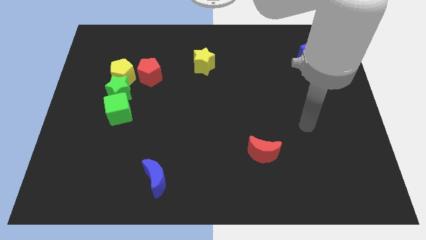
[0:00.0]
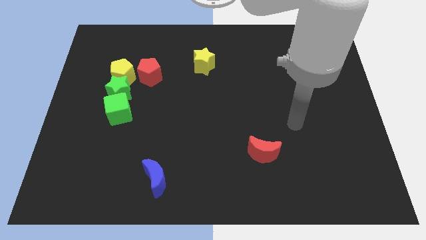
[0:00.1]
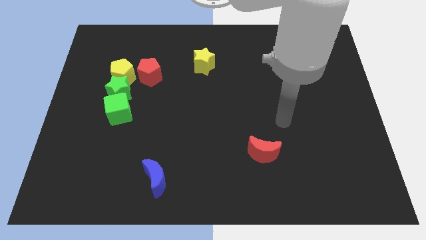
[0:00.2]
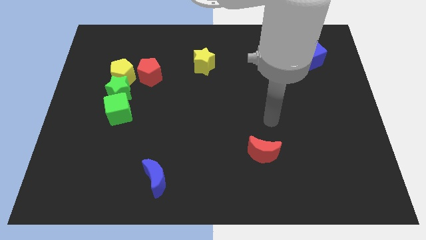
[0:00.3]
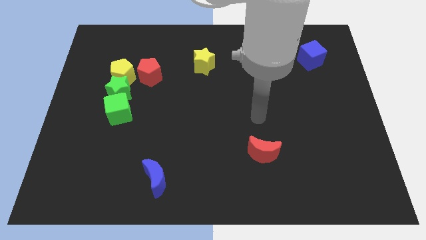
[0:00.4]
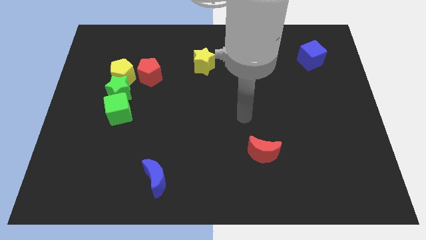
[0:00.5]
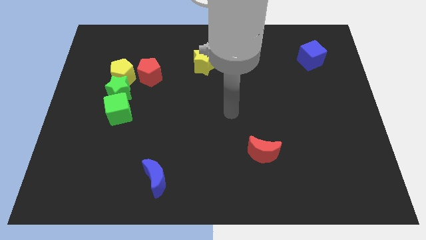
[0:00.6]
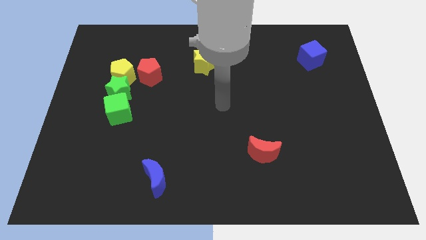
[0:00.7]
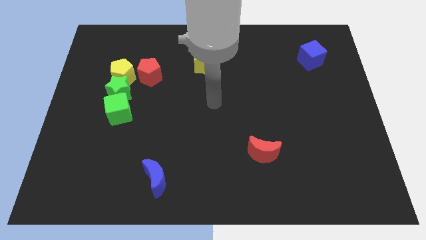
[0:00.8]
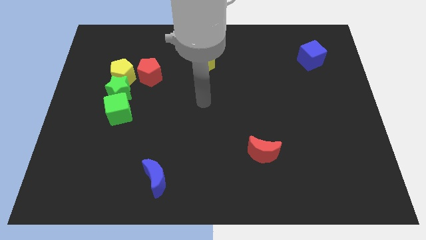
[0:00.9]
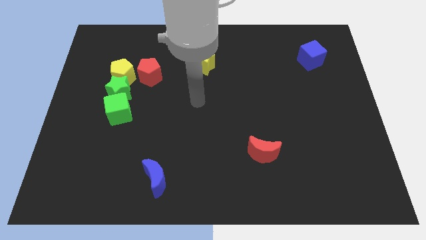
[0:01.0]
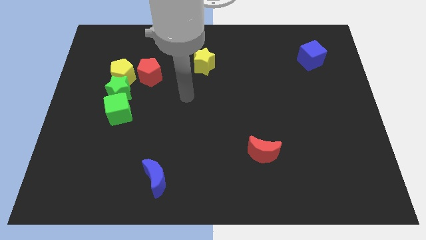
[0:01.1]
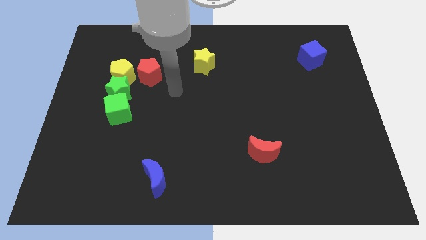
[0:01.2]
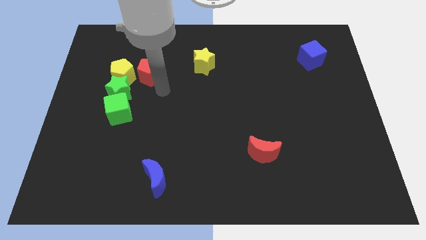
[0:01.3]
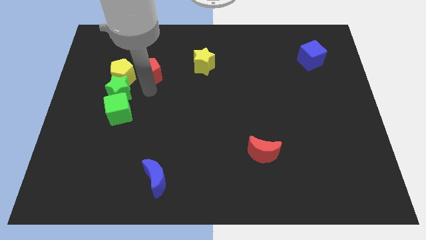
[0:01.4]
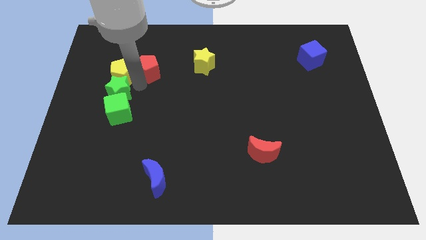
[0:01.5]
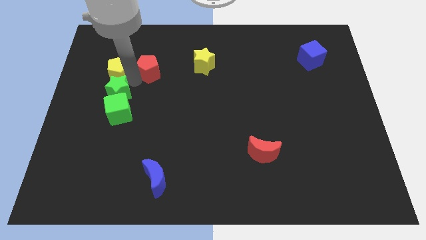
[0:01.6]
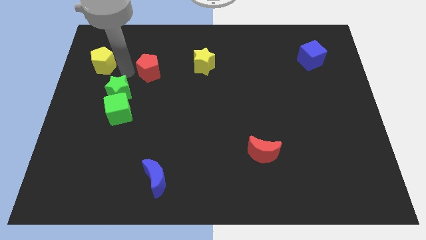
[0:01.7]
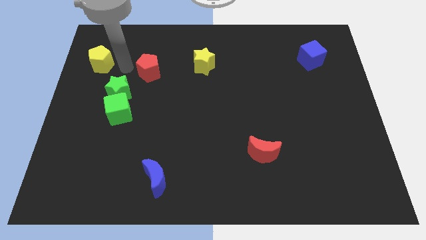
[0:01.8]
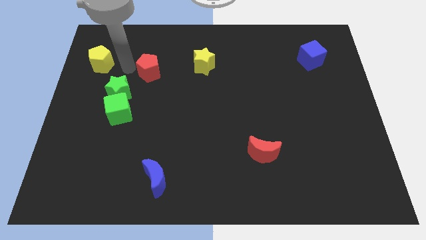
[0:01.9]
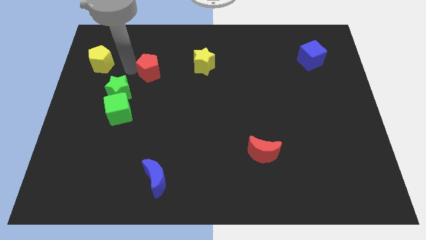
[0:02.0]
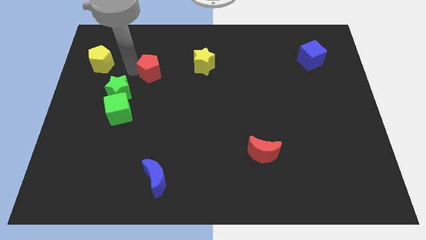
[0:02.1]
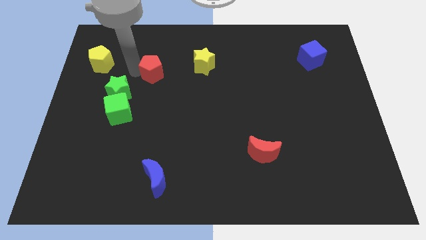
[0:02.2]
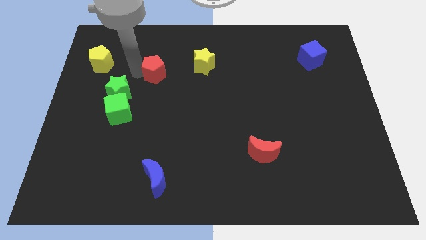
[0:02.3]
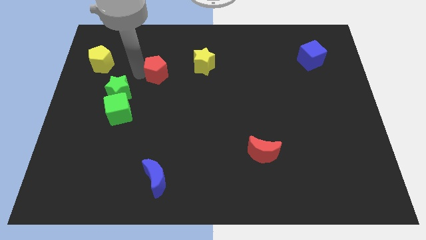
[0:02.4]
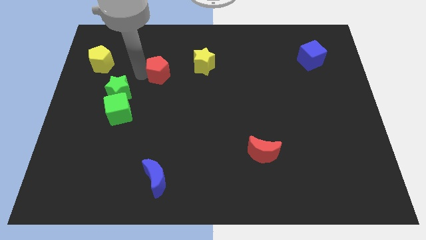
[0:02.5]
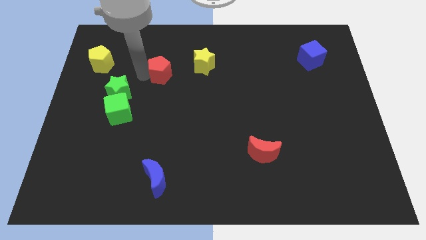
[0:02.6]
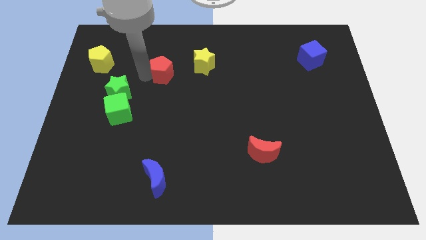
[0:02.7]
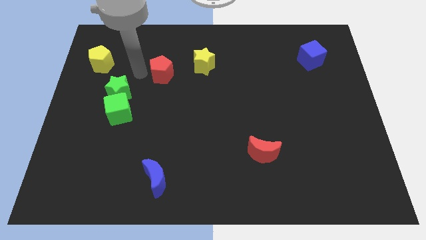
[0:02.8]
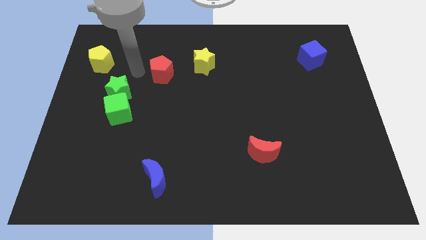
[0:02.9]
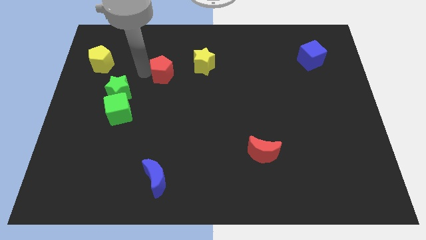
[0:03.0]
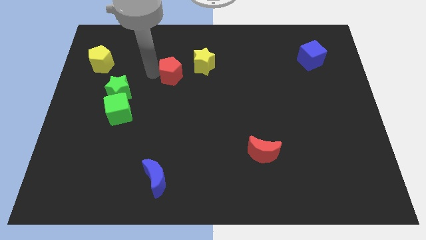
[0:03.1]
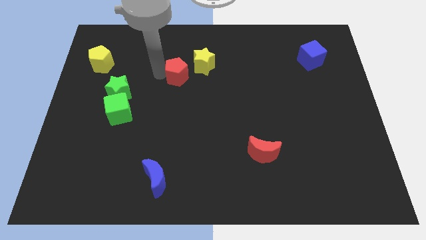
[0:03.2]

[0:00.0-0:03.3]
move the red pentagon a bit right

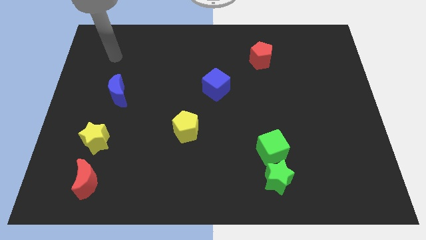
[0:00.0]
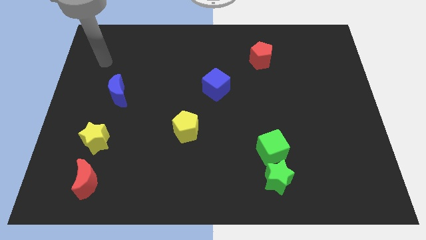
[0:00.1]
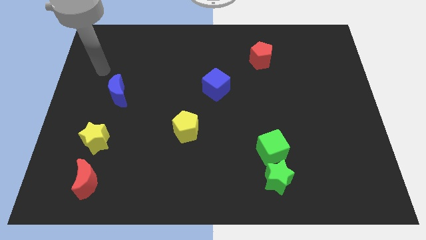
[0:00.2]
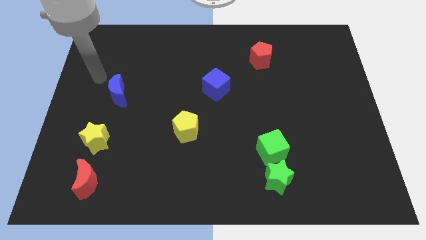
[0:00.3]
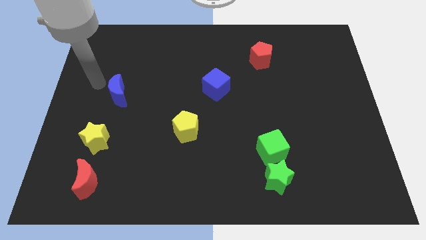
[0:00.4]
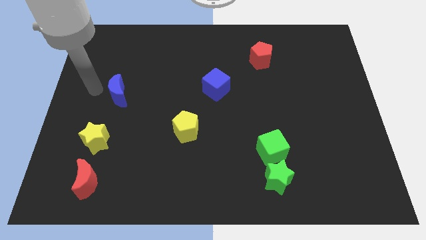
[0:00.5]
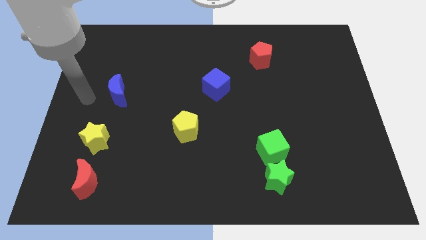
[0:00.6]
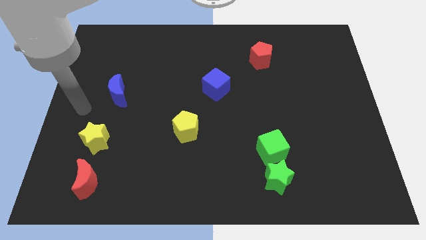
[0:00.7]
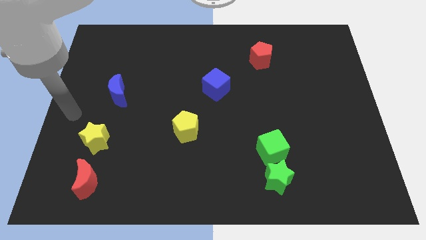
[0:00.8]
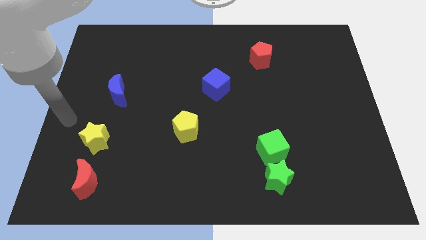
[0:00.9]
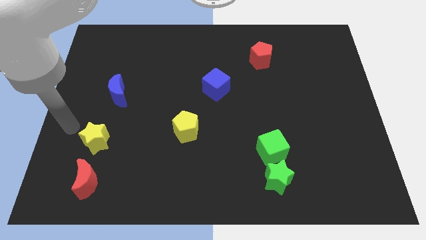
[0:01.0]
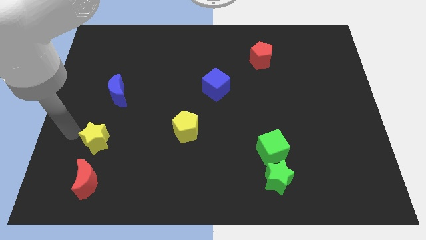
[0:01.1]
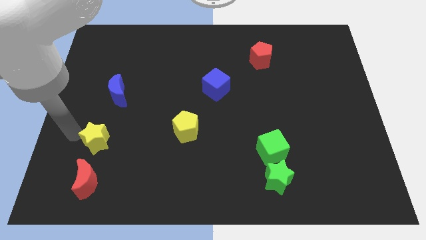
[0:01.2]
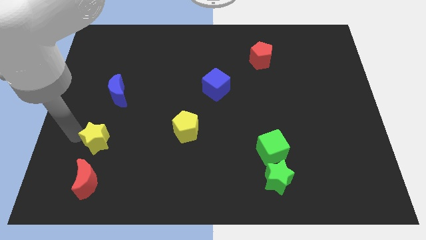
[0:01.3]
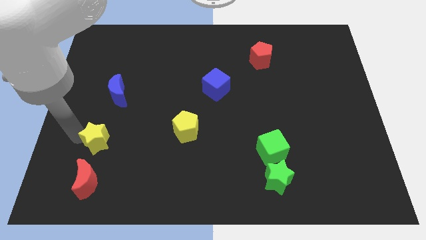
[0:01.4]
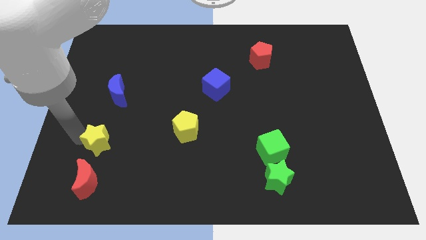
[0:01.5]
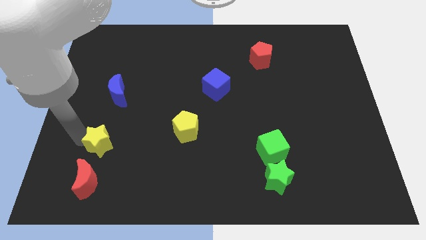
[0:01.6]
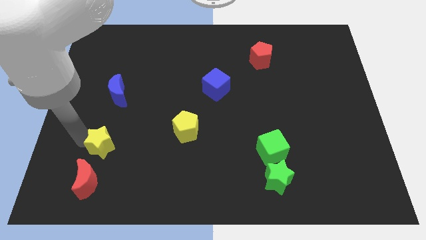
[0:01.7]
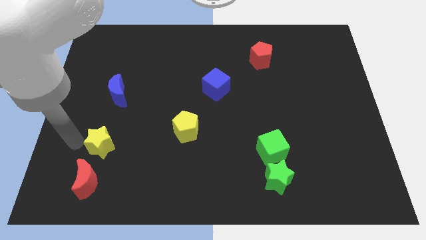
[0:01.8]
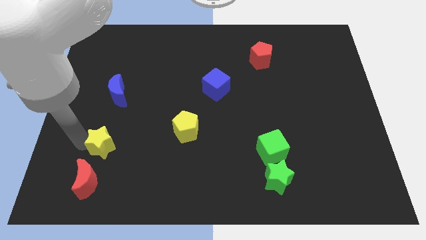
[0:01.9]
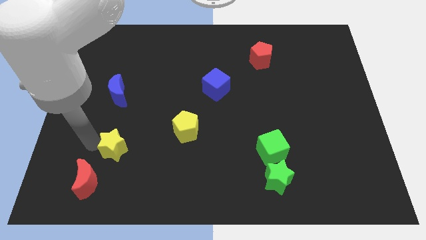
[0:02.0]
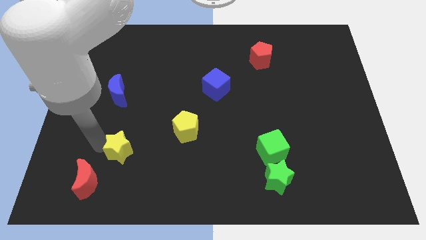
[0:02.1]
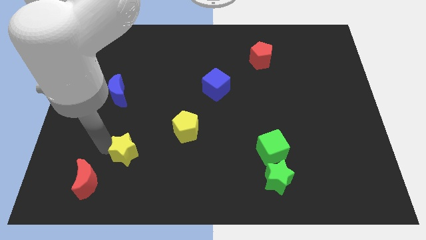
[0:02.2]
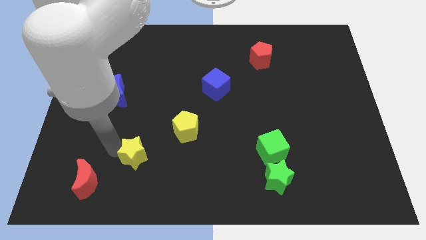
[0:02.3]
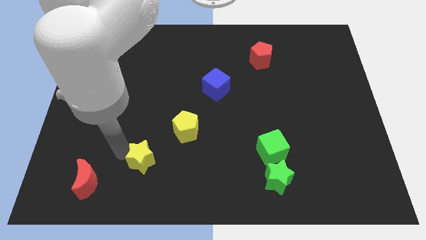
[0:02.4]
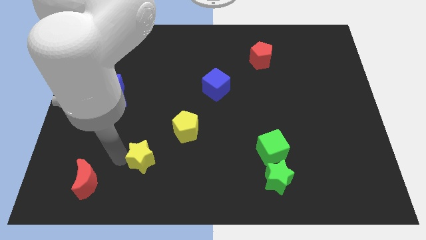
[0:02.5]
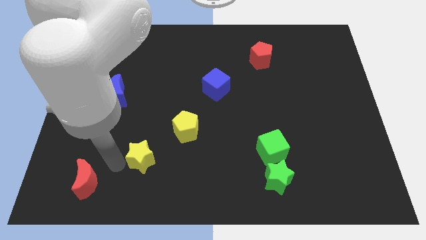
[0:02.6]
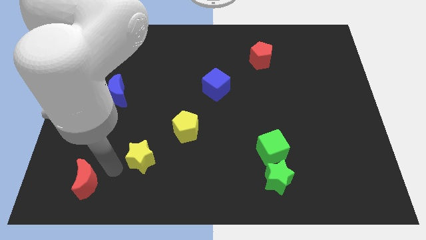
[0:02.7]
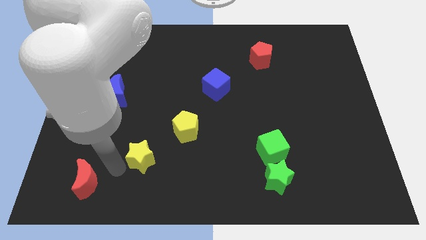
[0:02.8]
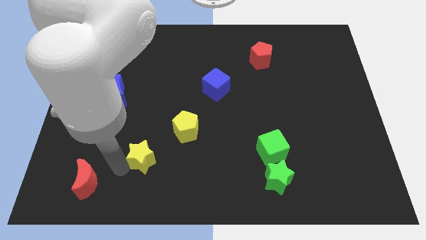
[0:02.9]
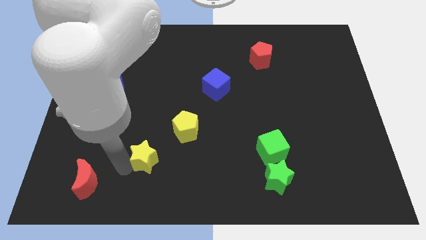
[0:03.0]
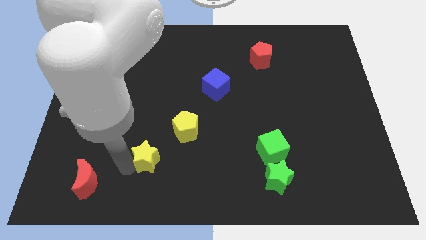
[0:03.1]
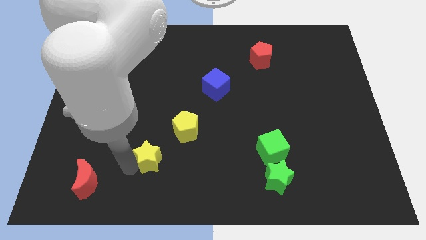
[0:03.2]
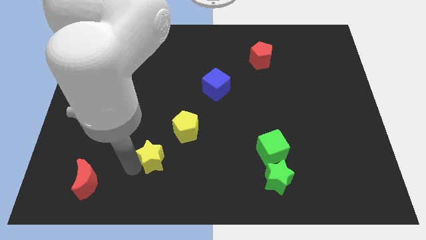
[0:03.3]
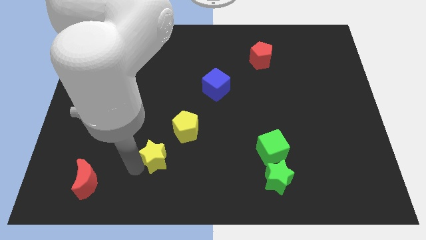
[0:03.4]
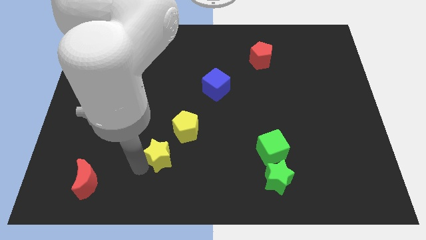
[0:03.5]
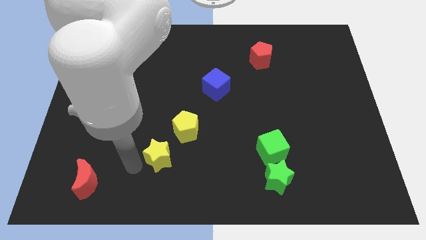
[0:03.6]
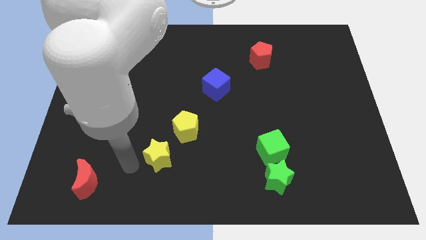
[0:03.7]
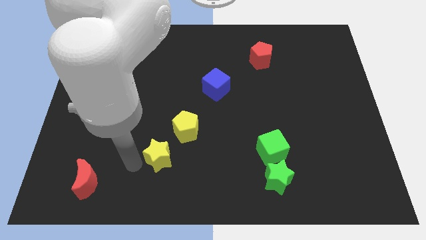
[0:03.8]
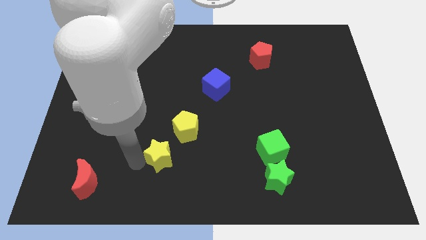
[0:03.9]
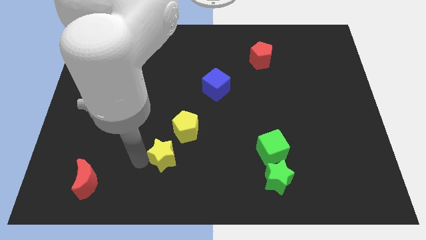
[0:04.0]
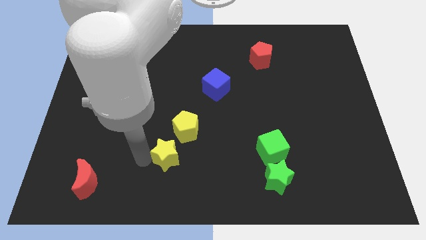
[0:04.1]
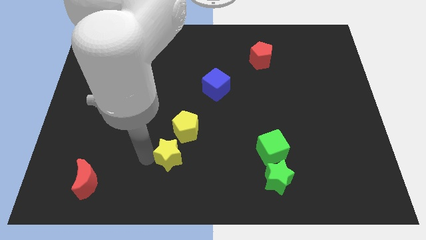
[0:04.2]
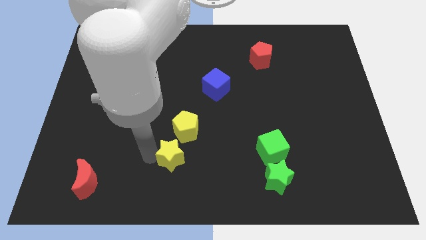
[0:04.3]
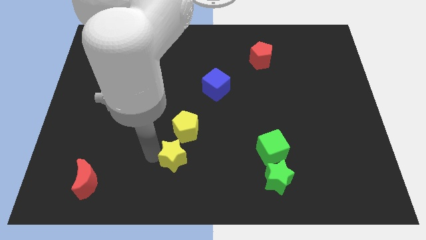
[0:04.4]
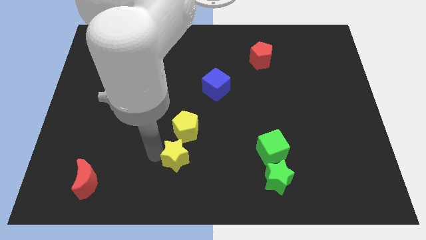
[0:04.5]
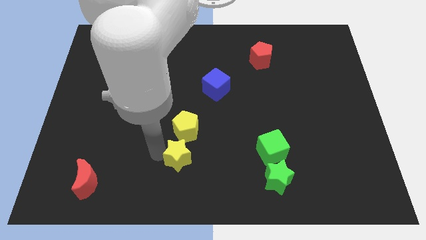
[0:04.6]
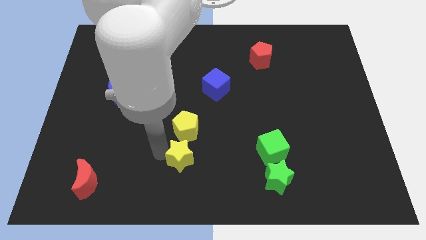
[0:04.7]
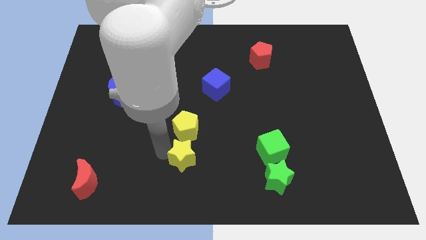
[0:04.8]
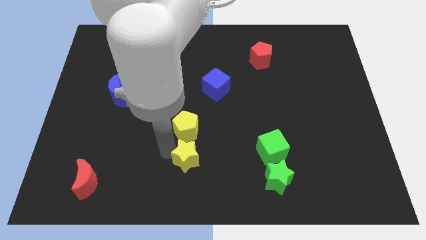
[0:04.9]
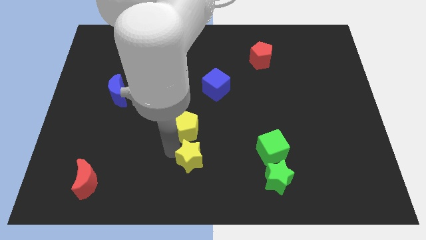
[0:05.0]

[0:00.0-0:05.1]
slide the yellow star right
